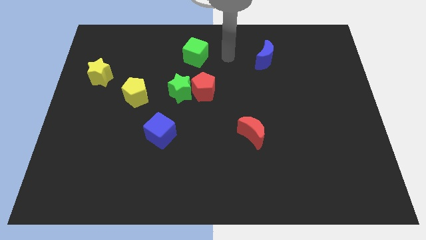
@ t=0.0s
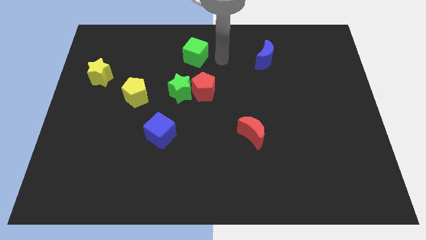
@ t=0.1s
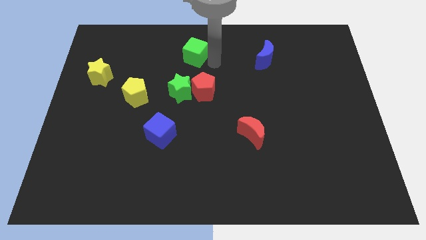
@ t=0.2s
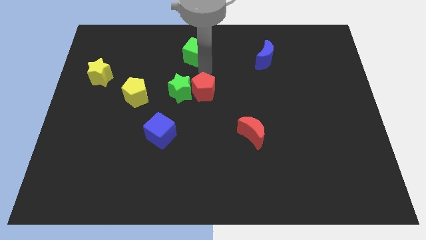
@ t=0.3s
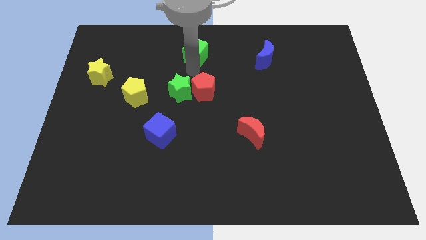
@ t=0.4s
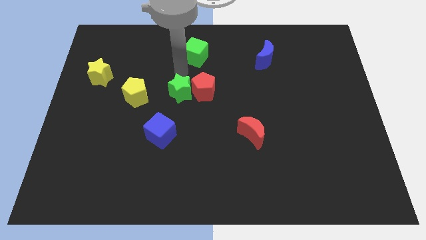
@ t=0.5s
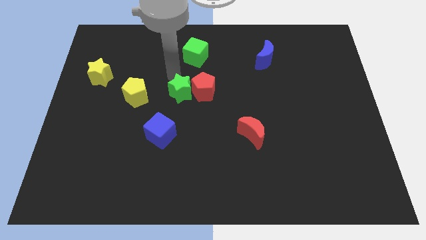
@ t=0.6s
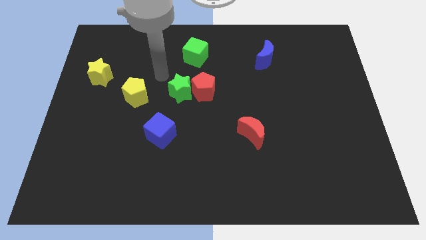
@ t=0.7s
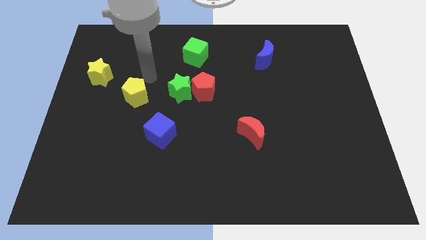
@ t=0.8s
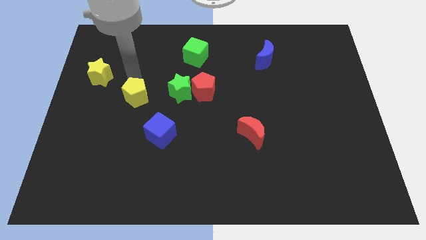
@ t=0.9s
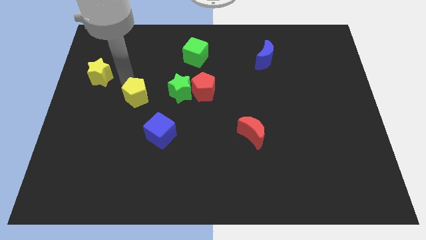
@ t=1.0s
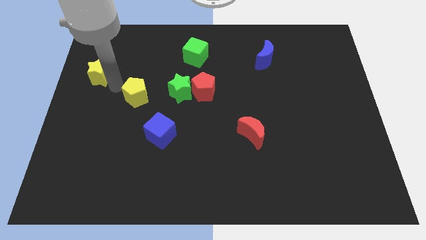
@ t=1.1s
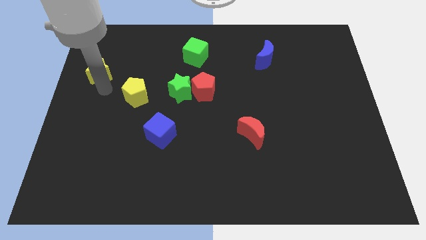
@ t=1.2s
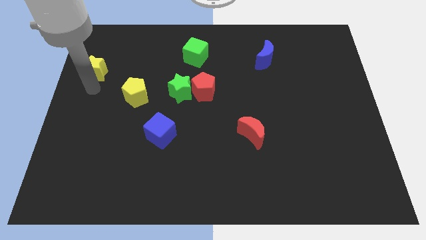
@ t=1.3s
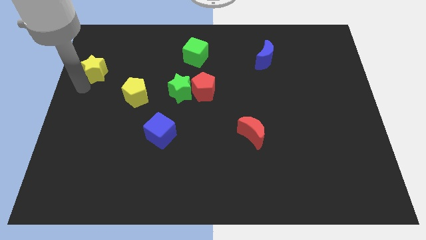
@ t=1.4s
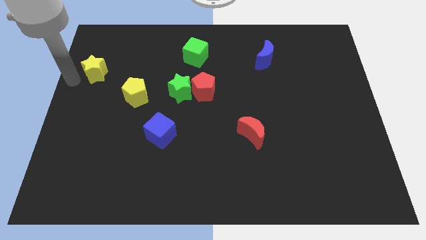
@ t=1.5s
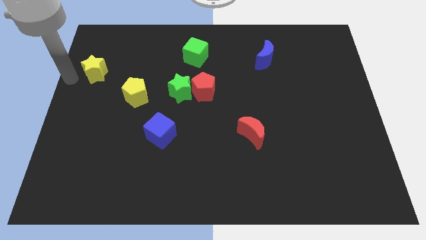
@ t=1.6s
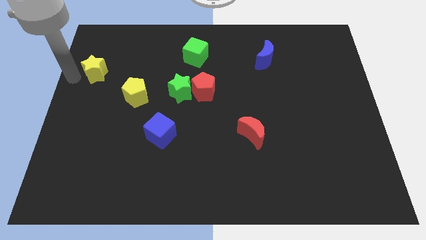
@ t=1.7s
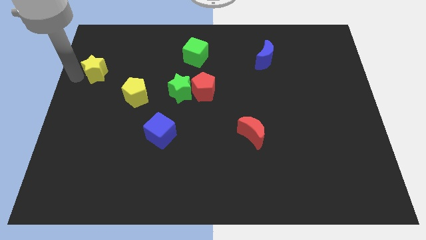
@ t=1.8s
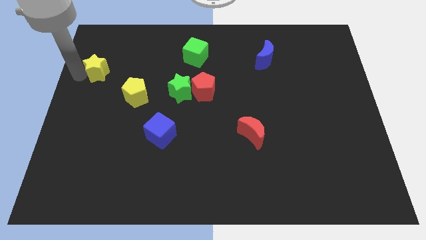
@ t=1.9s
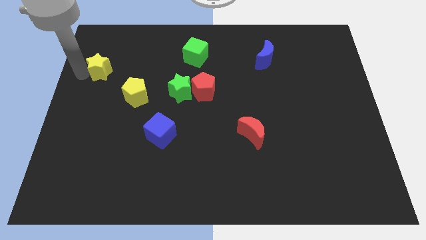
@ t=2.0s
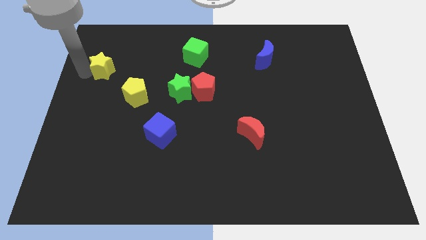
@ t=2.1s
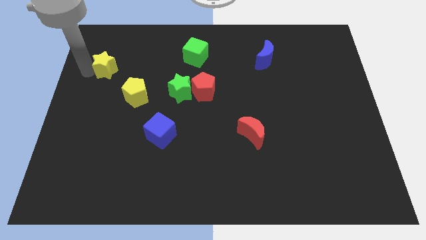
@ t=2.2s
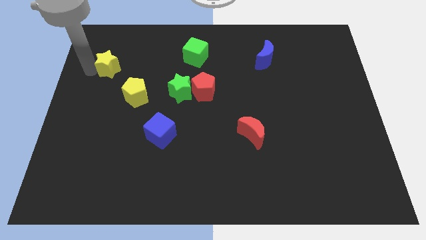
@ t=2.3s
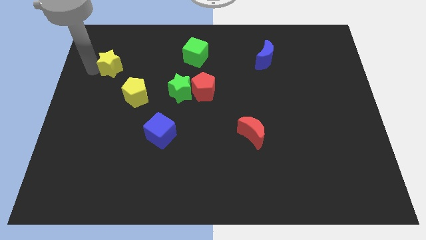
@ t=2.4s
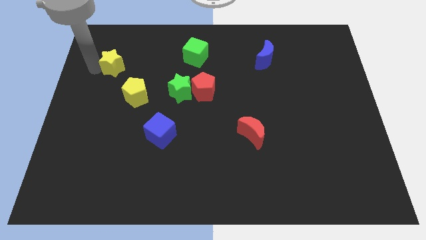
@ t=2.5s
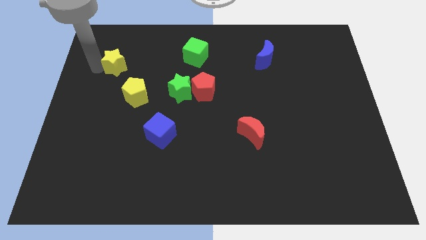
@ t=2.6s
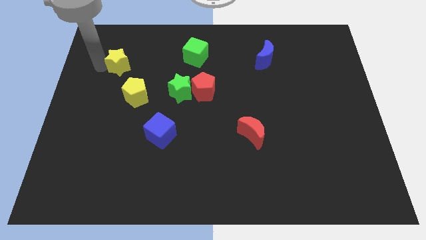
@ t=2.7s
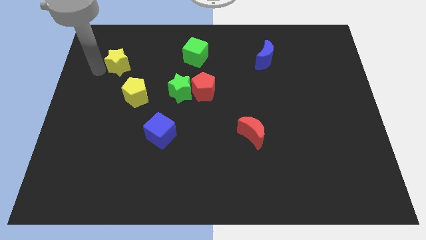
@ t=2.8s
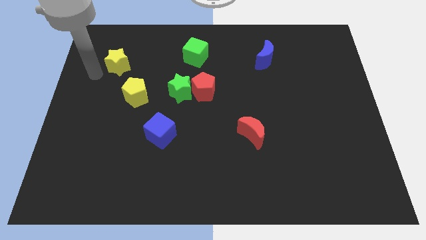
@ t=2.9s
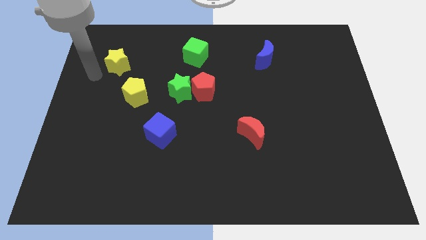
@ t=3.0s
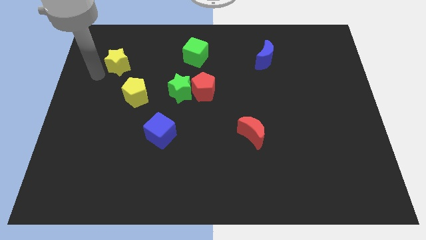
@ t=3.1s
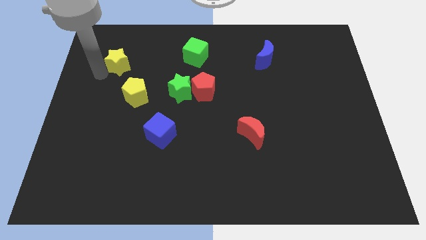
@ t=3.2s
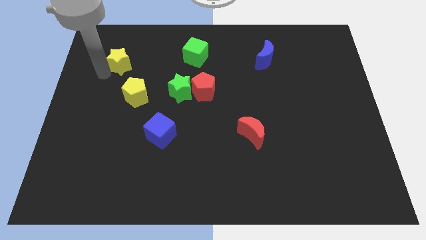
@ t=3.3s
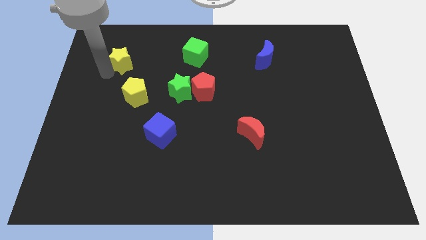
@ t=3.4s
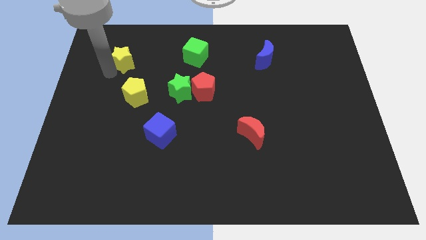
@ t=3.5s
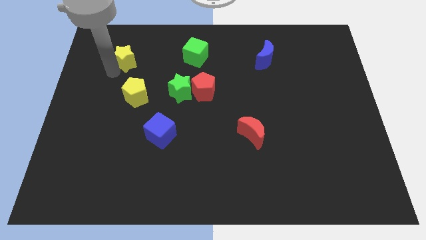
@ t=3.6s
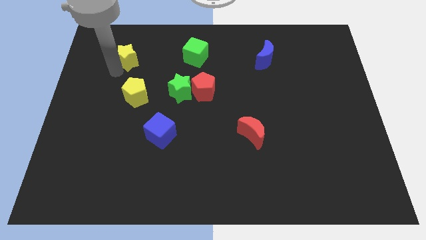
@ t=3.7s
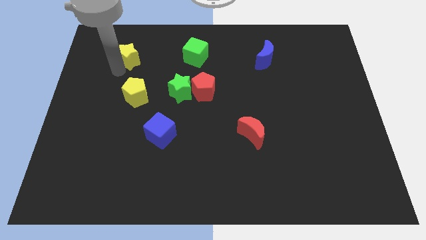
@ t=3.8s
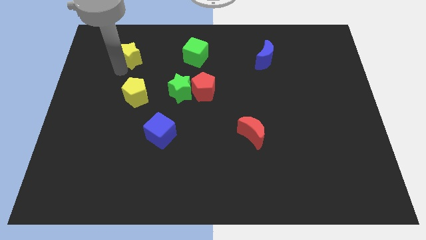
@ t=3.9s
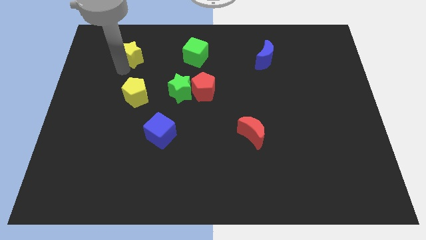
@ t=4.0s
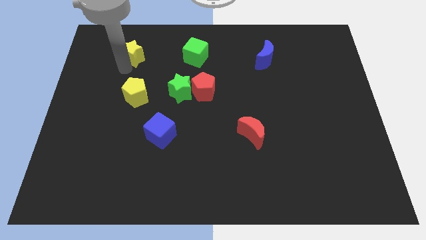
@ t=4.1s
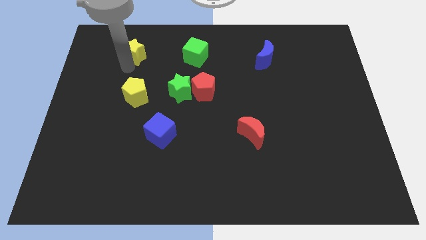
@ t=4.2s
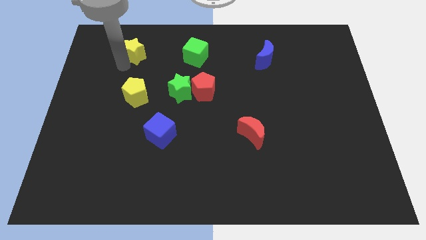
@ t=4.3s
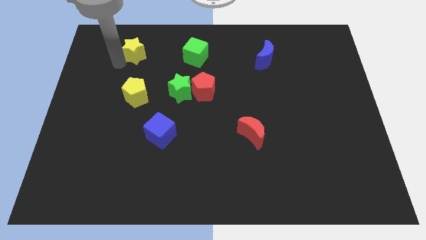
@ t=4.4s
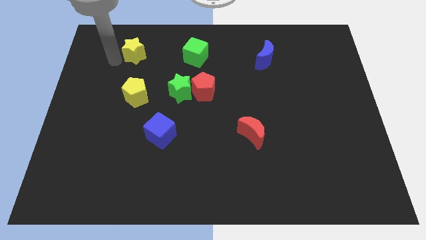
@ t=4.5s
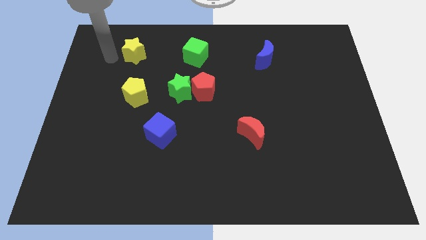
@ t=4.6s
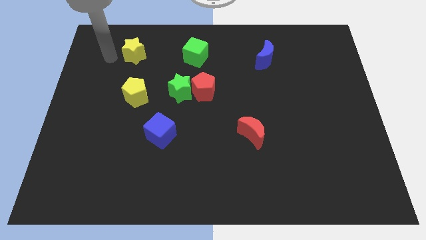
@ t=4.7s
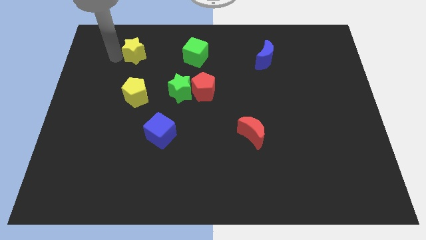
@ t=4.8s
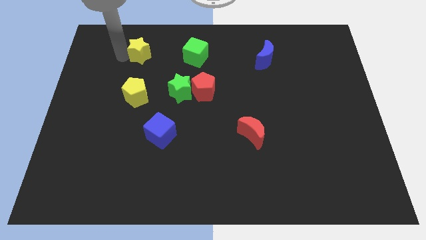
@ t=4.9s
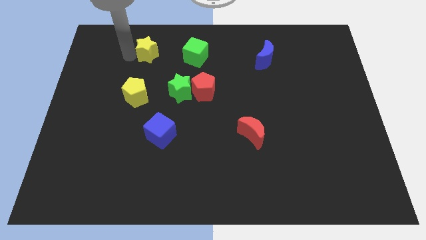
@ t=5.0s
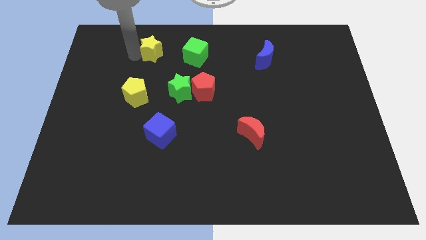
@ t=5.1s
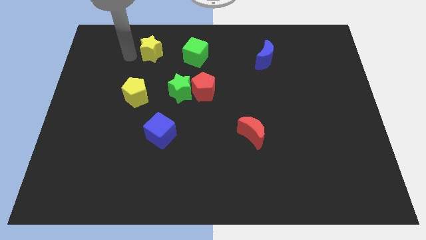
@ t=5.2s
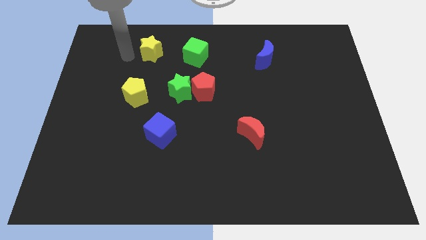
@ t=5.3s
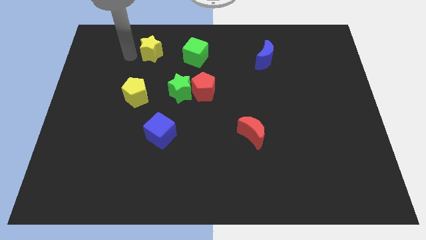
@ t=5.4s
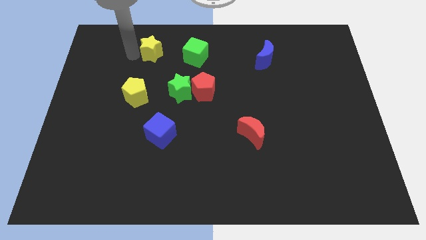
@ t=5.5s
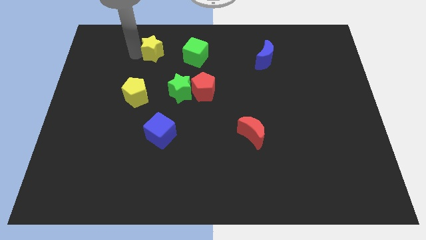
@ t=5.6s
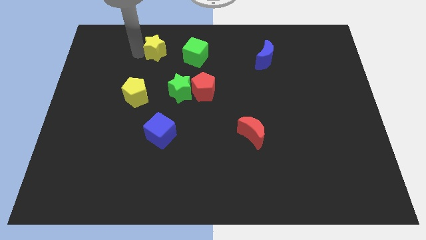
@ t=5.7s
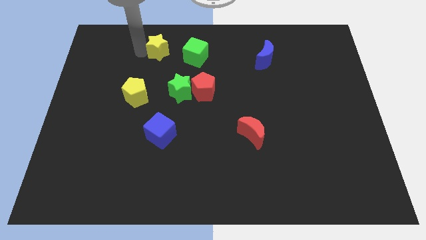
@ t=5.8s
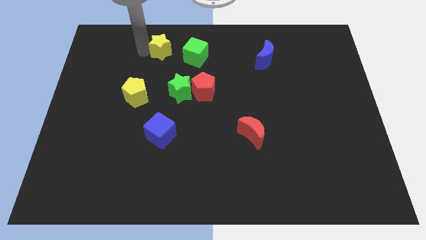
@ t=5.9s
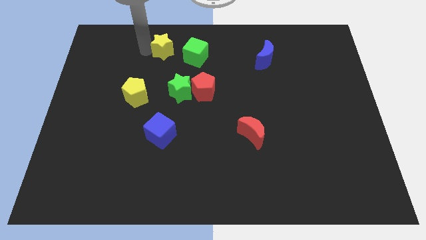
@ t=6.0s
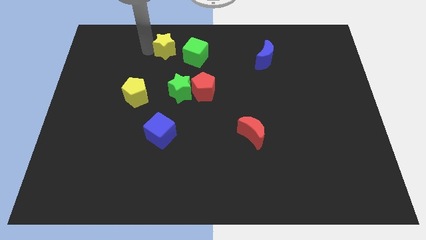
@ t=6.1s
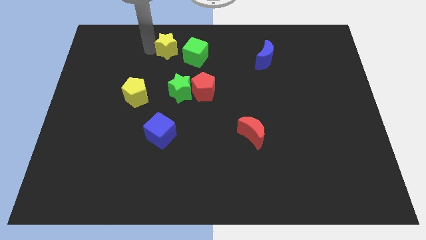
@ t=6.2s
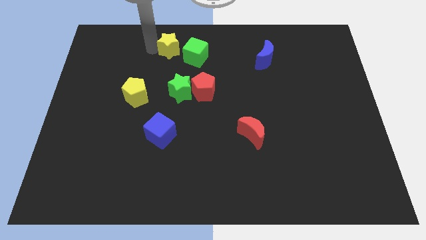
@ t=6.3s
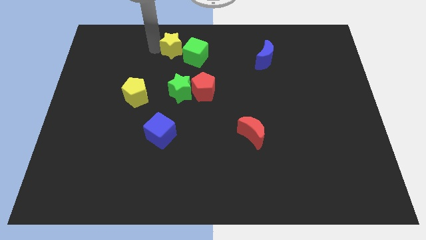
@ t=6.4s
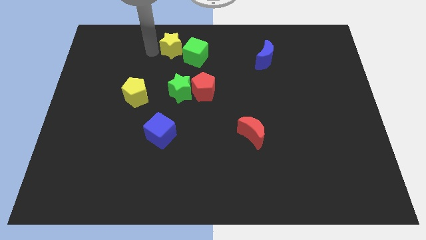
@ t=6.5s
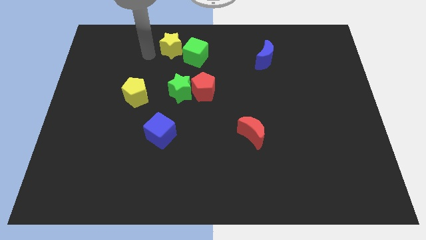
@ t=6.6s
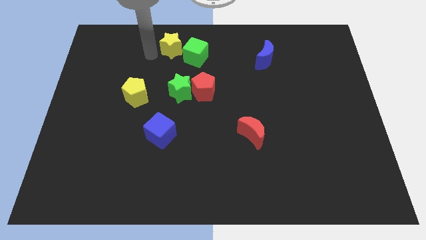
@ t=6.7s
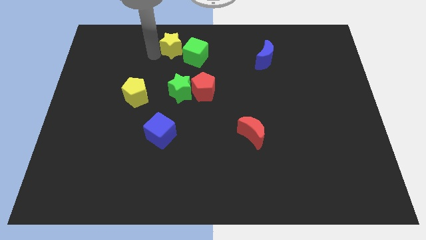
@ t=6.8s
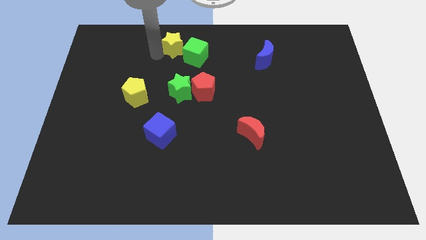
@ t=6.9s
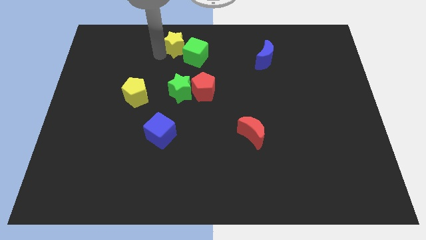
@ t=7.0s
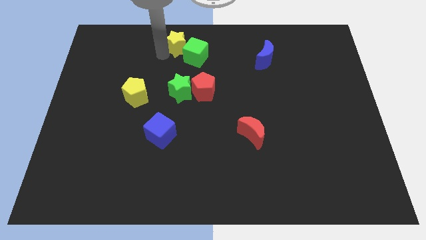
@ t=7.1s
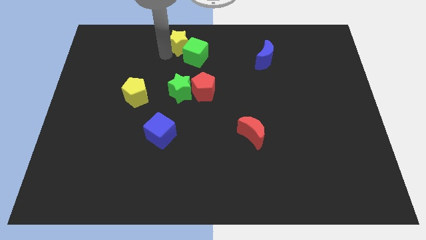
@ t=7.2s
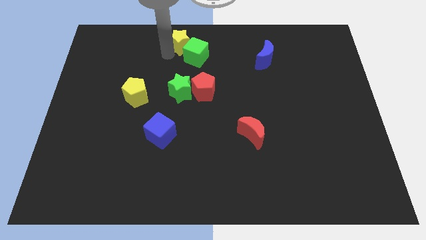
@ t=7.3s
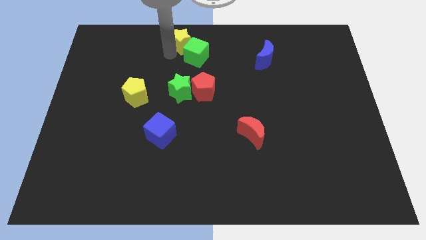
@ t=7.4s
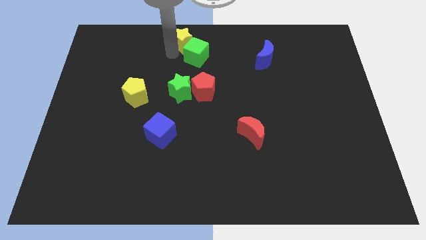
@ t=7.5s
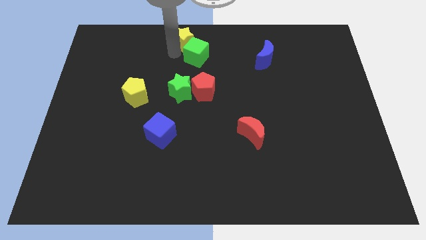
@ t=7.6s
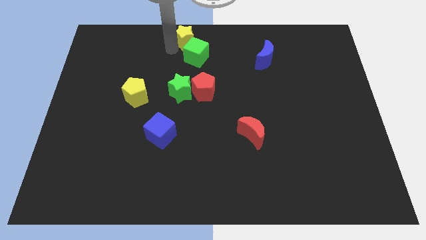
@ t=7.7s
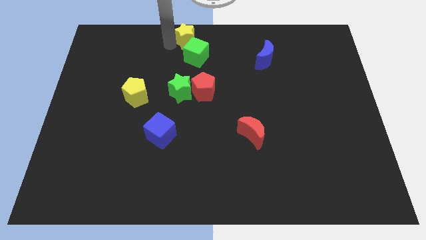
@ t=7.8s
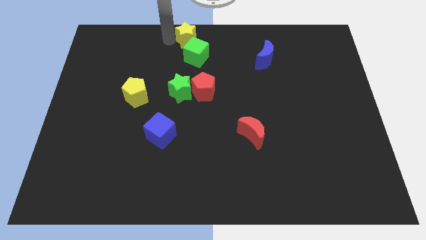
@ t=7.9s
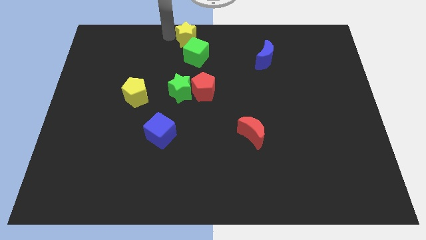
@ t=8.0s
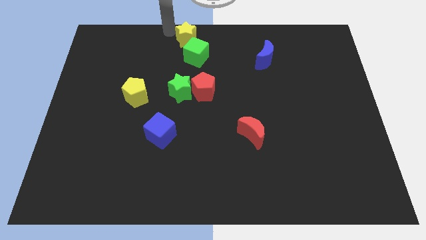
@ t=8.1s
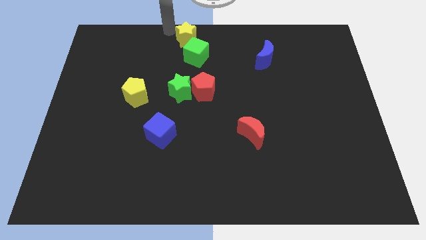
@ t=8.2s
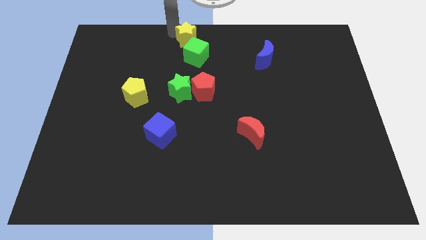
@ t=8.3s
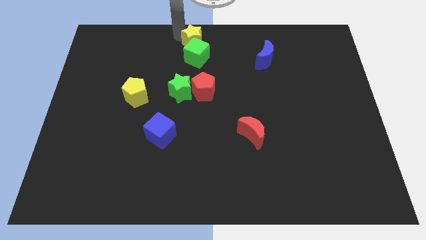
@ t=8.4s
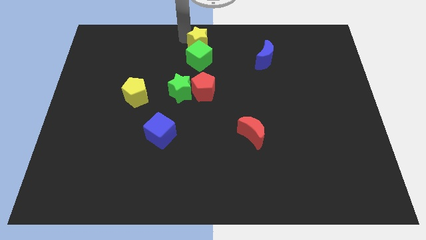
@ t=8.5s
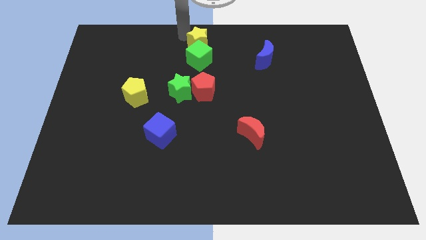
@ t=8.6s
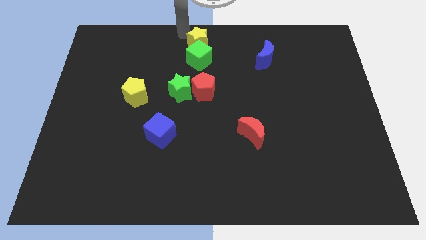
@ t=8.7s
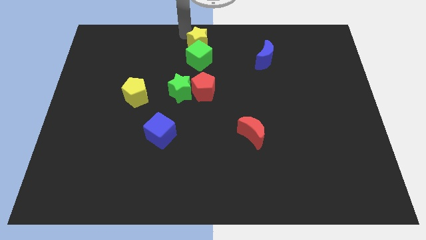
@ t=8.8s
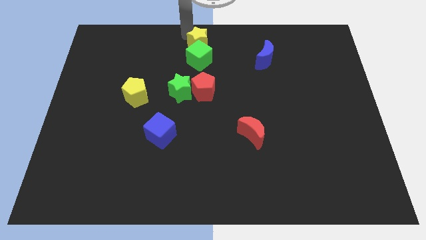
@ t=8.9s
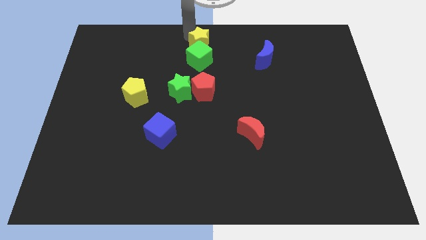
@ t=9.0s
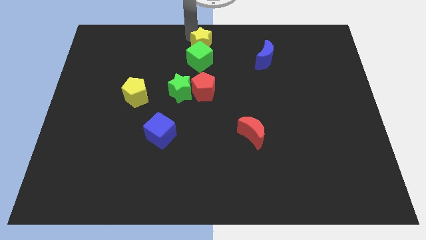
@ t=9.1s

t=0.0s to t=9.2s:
slide the yellow star to the top of the red pentagon
